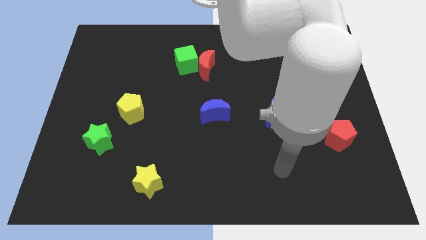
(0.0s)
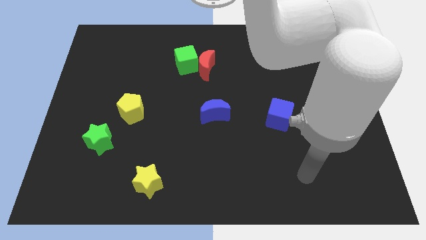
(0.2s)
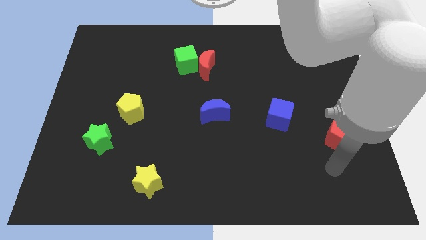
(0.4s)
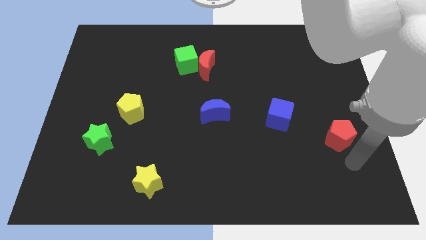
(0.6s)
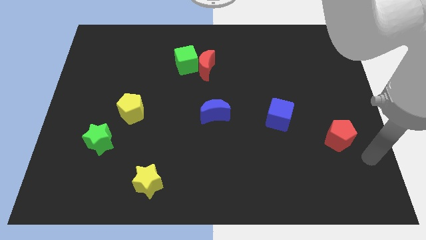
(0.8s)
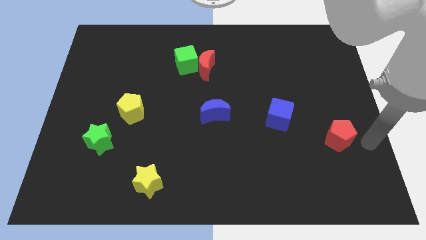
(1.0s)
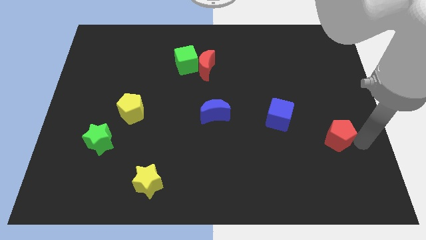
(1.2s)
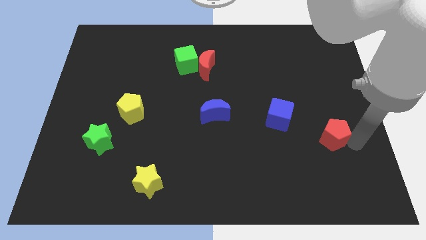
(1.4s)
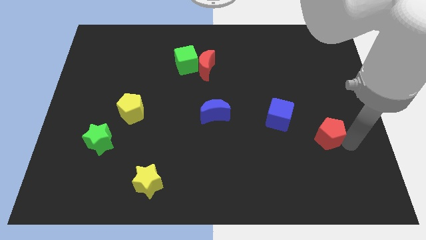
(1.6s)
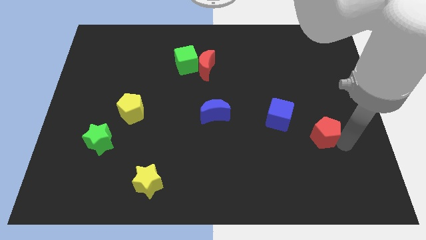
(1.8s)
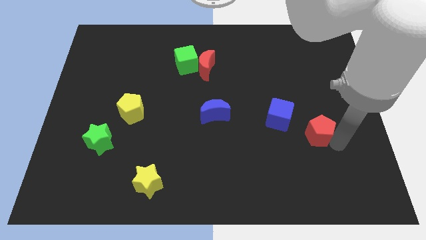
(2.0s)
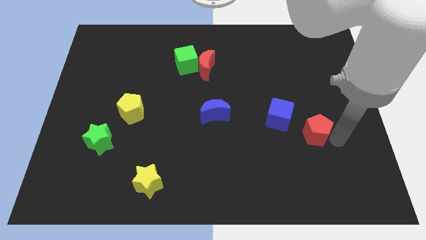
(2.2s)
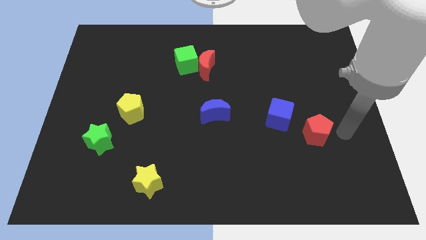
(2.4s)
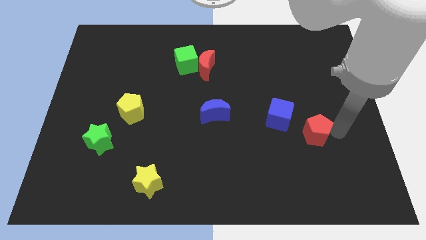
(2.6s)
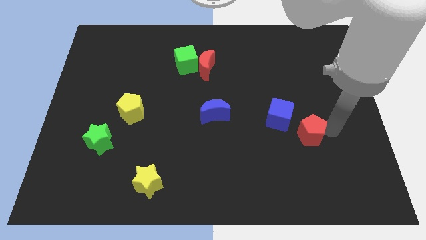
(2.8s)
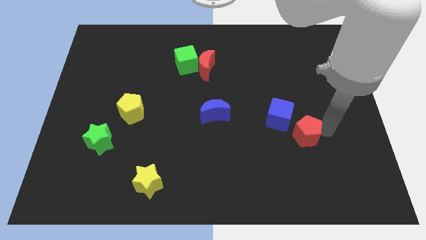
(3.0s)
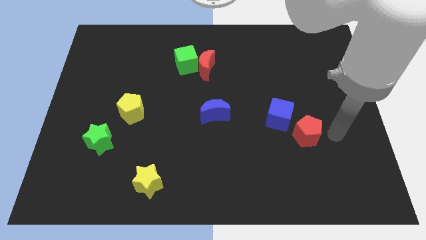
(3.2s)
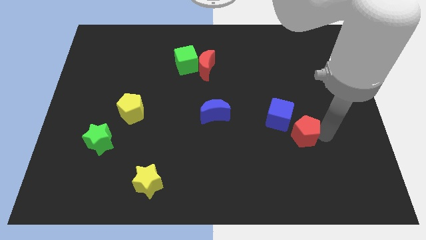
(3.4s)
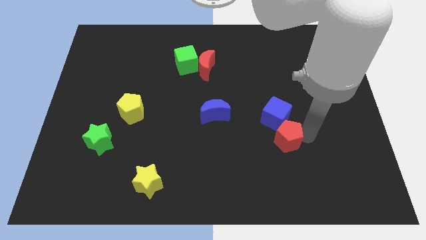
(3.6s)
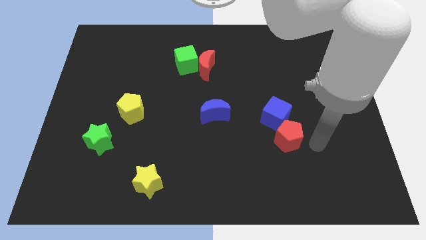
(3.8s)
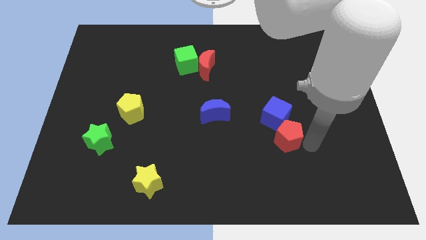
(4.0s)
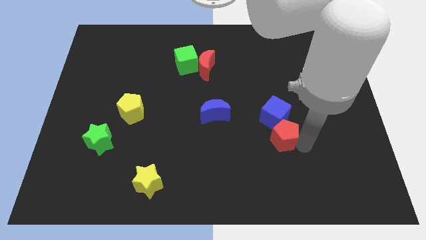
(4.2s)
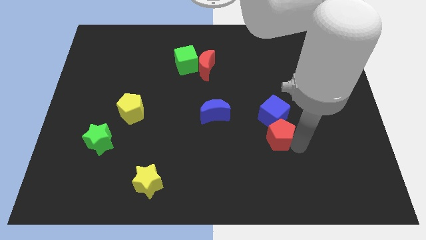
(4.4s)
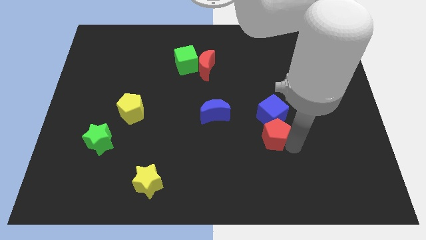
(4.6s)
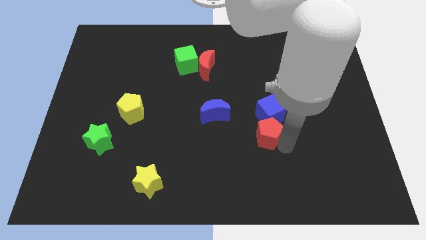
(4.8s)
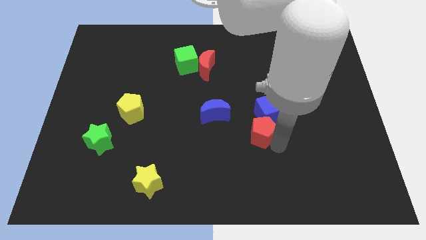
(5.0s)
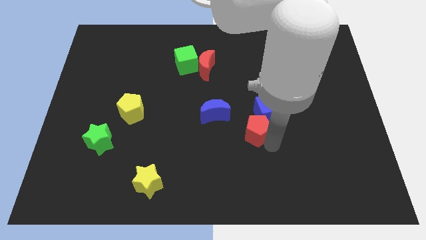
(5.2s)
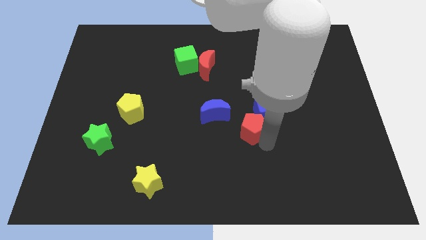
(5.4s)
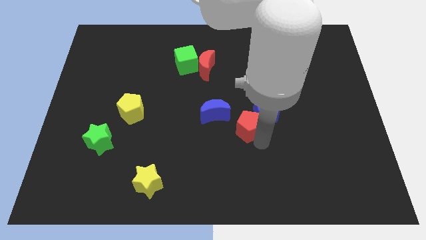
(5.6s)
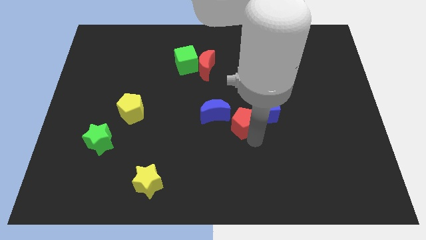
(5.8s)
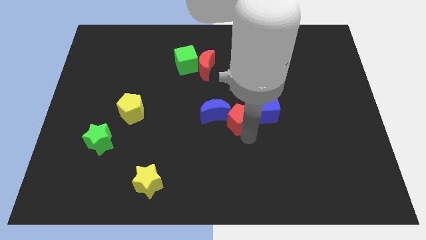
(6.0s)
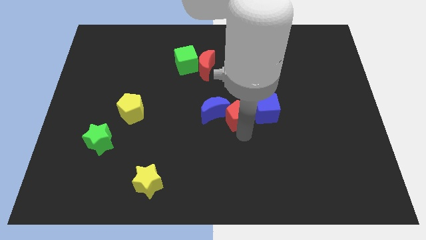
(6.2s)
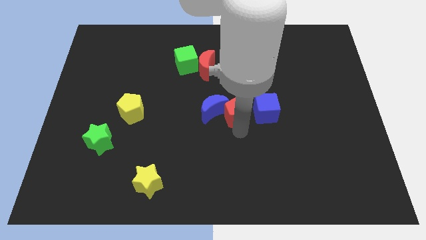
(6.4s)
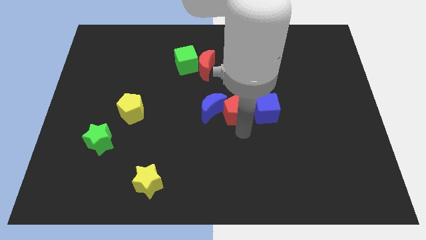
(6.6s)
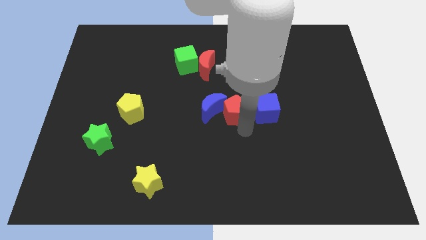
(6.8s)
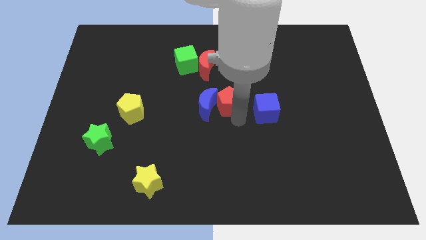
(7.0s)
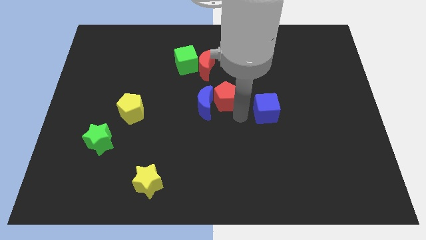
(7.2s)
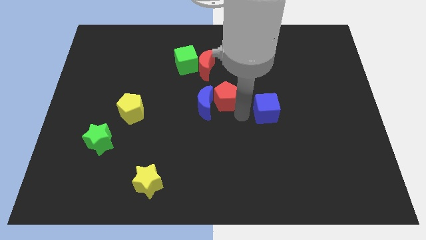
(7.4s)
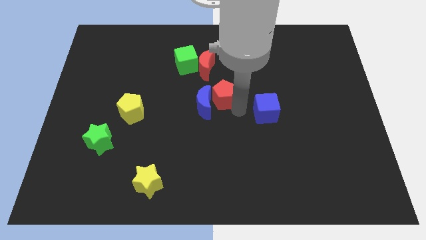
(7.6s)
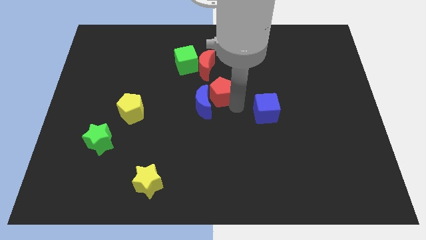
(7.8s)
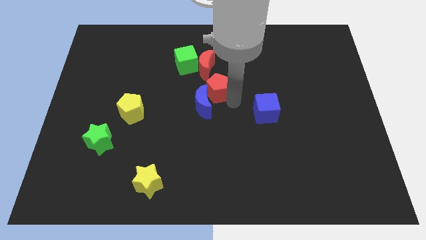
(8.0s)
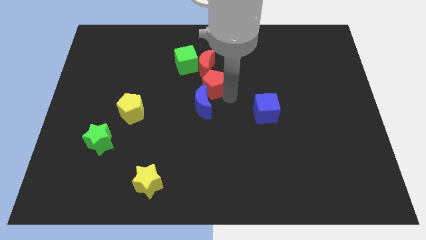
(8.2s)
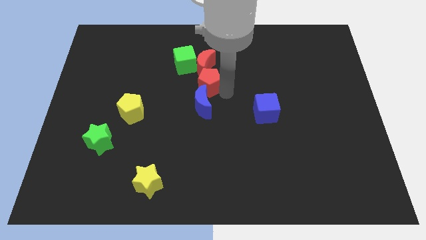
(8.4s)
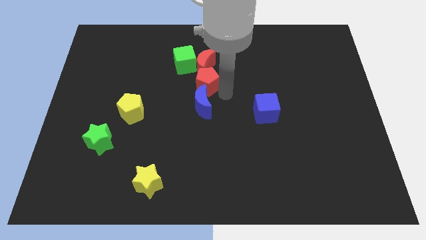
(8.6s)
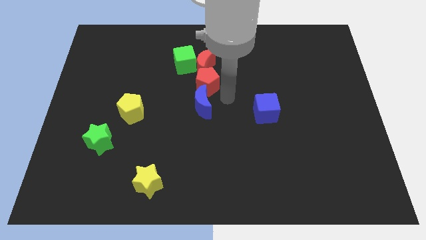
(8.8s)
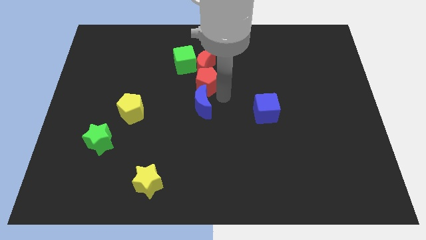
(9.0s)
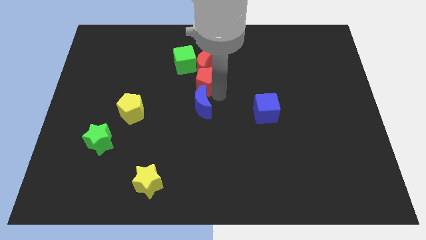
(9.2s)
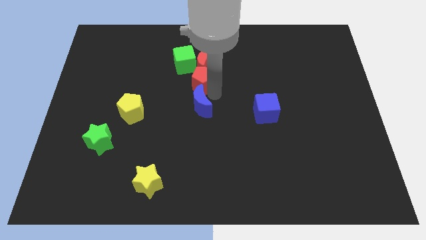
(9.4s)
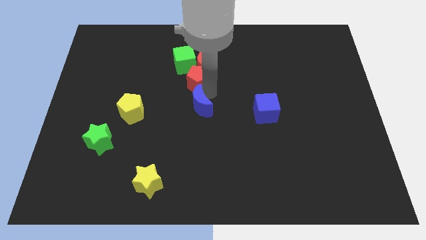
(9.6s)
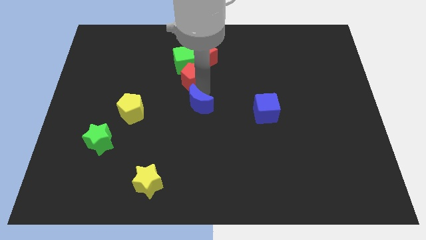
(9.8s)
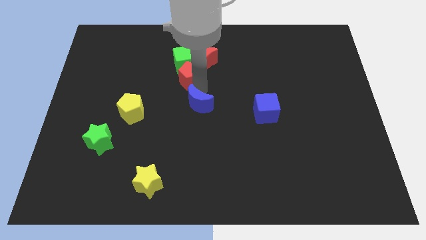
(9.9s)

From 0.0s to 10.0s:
slide the red pentagon close to the green cube

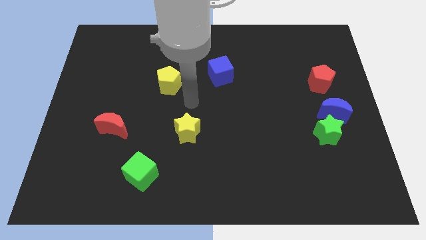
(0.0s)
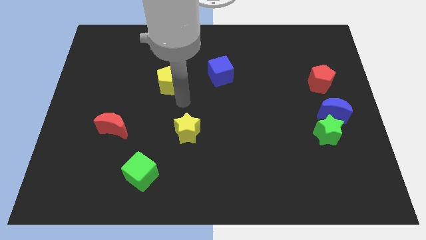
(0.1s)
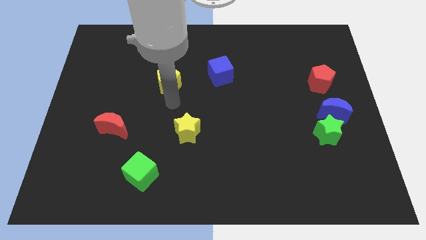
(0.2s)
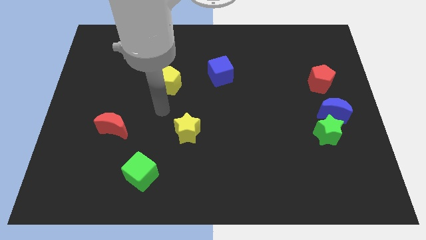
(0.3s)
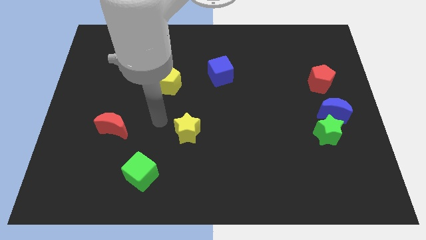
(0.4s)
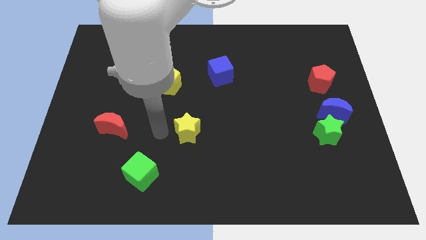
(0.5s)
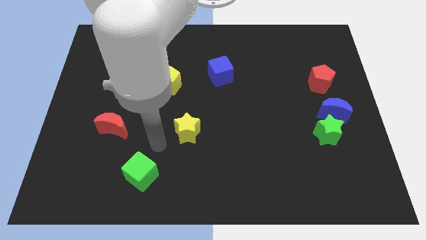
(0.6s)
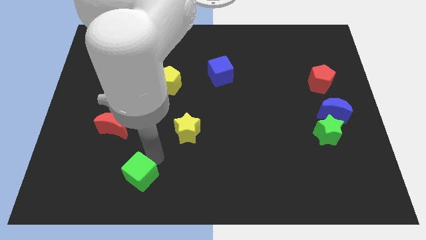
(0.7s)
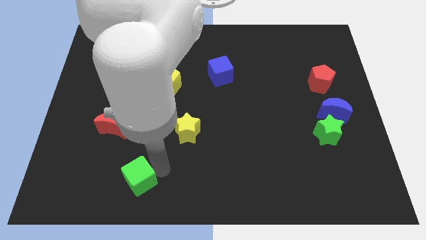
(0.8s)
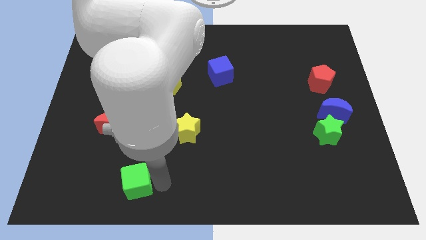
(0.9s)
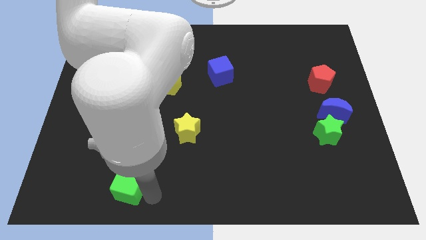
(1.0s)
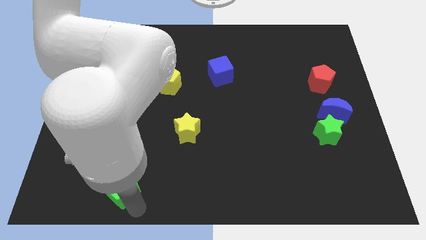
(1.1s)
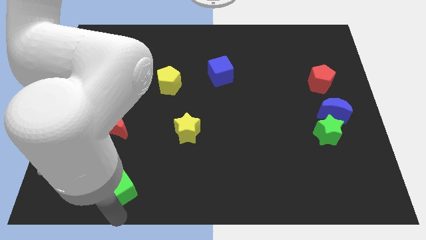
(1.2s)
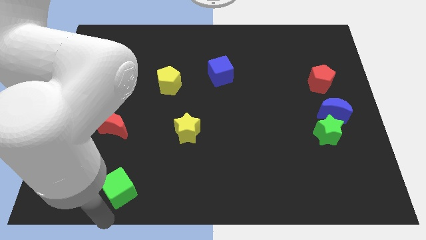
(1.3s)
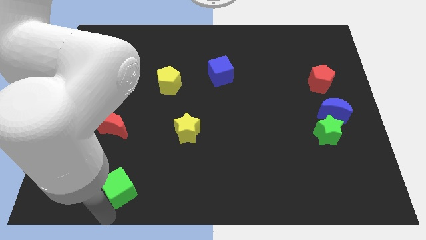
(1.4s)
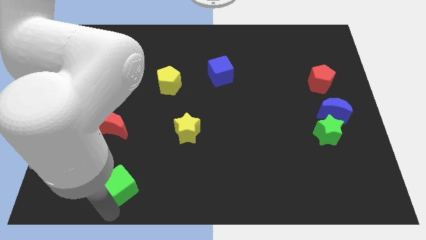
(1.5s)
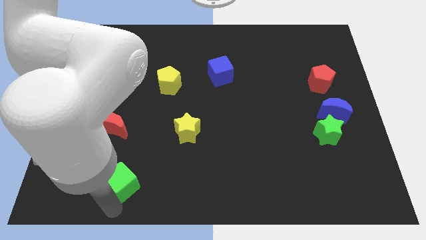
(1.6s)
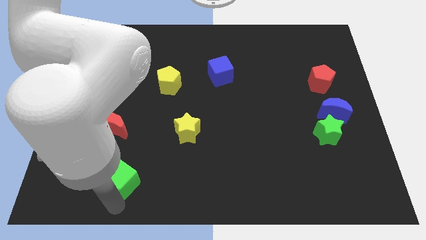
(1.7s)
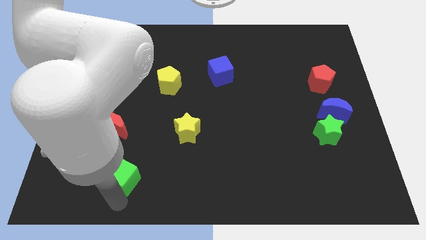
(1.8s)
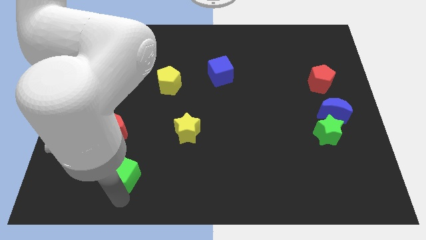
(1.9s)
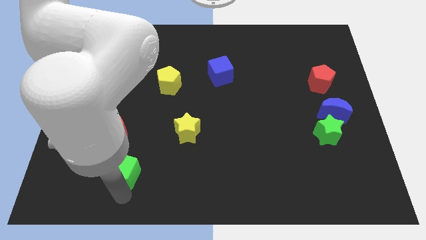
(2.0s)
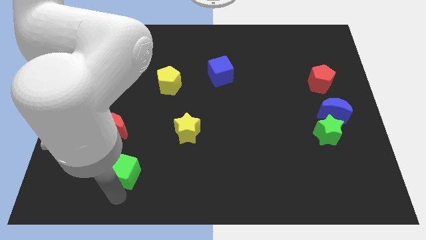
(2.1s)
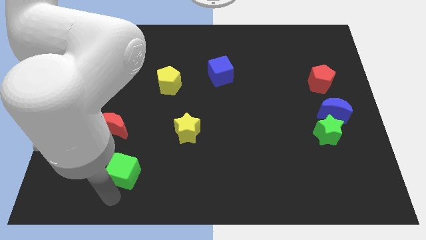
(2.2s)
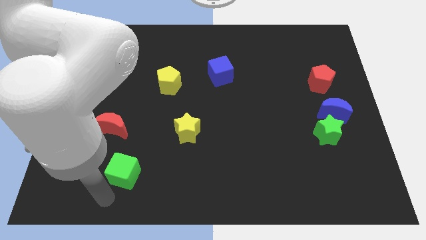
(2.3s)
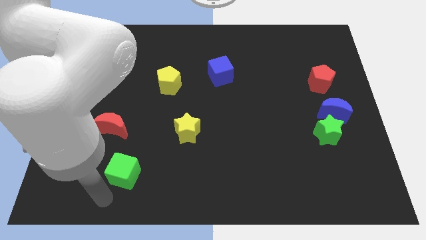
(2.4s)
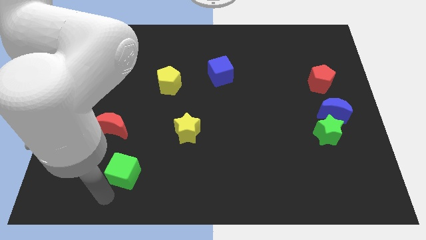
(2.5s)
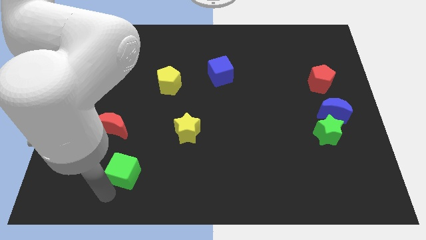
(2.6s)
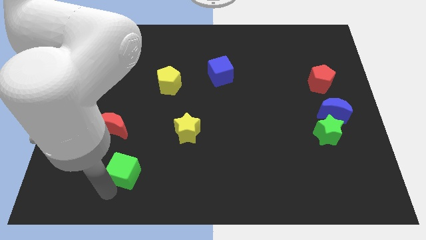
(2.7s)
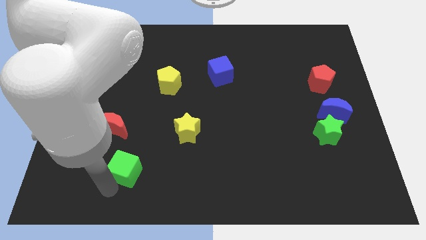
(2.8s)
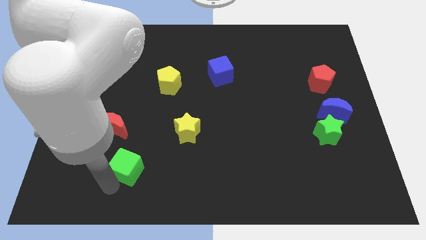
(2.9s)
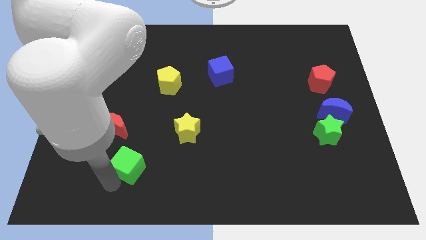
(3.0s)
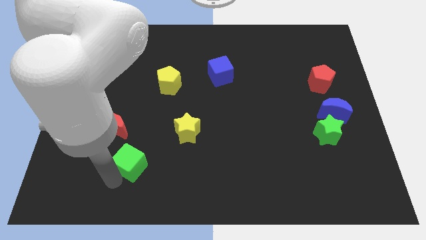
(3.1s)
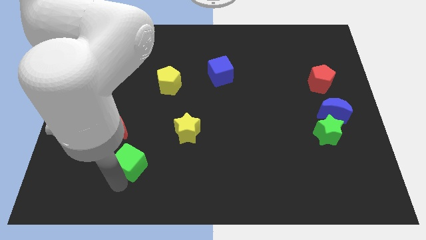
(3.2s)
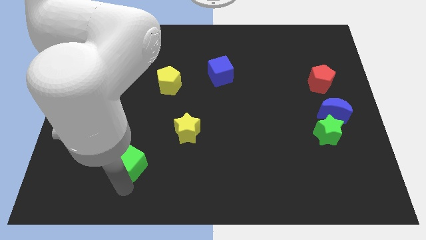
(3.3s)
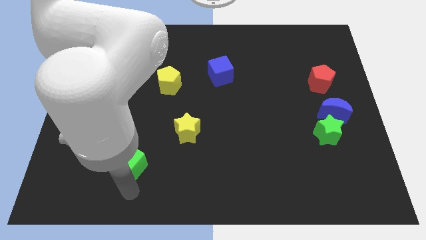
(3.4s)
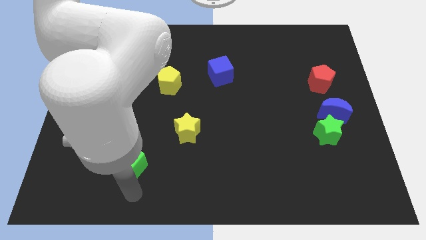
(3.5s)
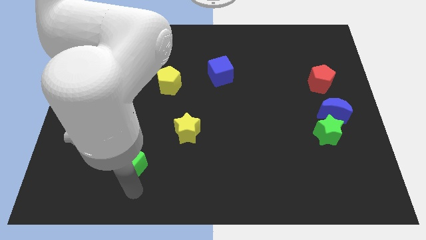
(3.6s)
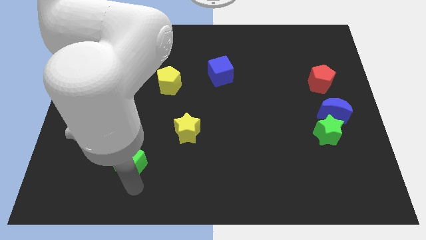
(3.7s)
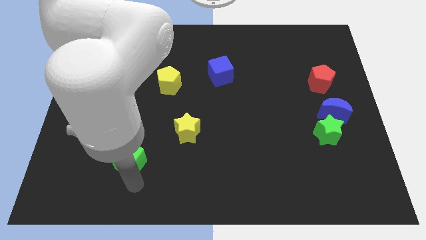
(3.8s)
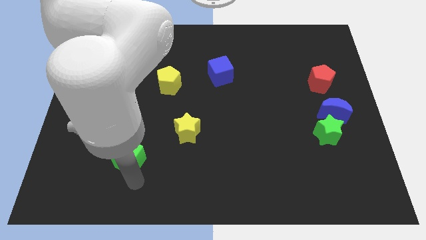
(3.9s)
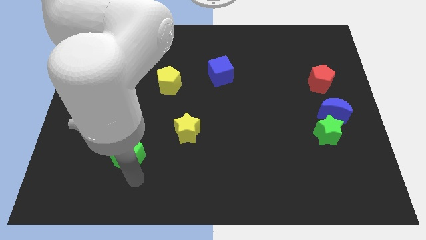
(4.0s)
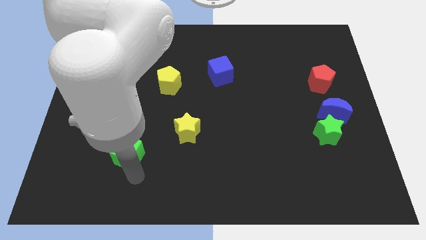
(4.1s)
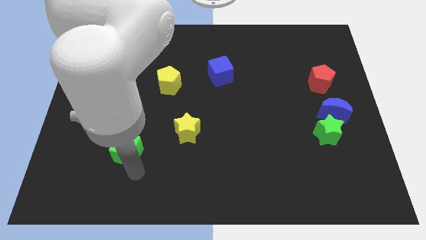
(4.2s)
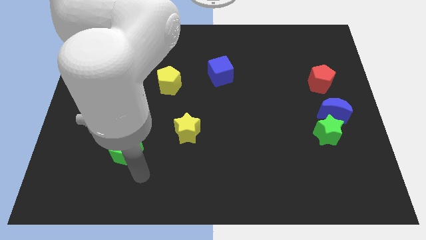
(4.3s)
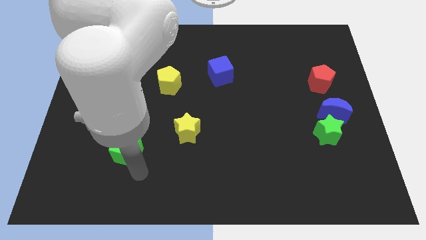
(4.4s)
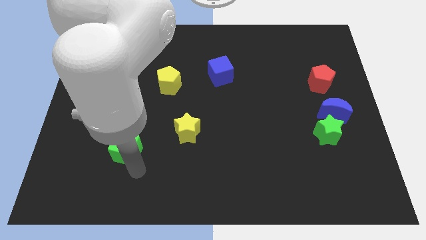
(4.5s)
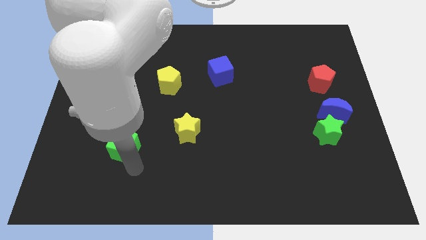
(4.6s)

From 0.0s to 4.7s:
move the green cube to the red moon
